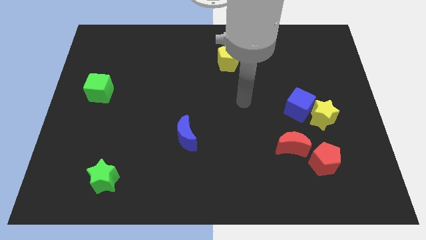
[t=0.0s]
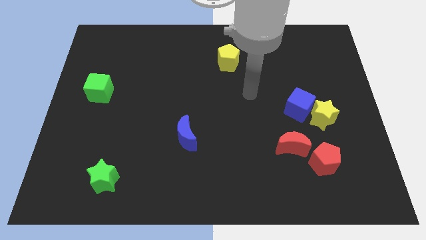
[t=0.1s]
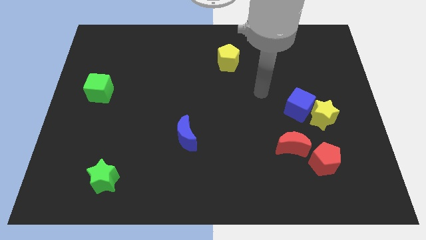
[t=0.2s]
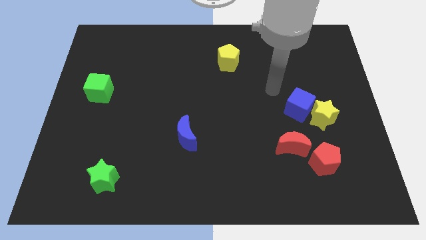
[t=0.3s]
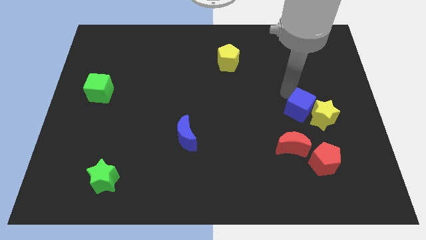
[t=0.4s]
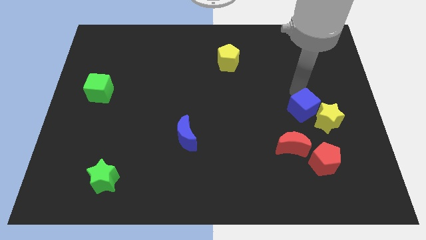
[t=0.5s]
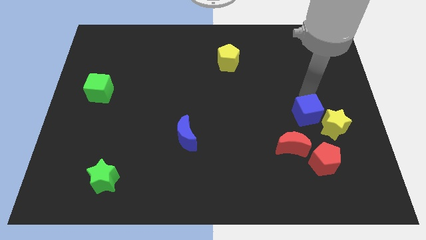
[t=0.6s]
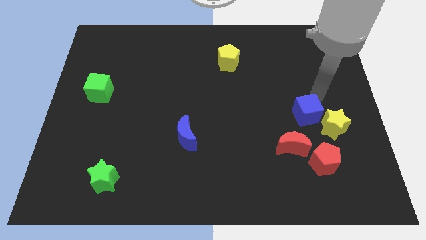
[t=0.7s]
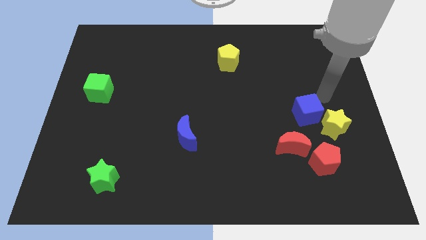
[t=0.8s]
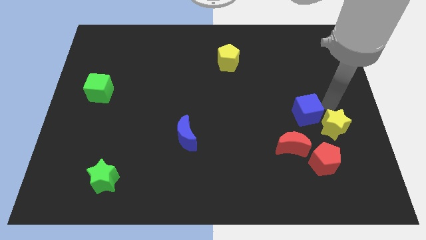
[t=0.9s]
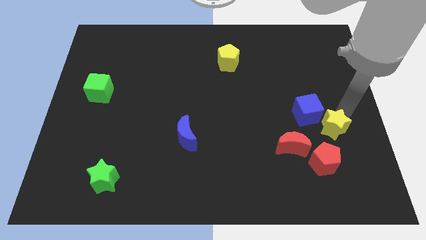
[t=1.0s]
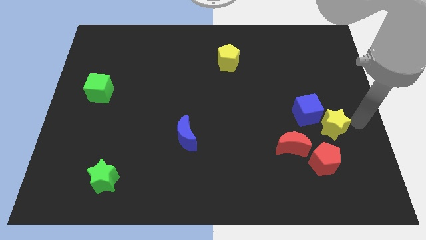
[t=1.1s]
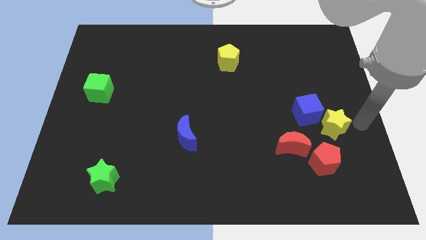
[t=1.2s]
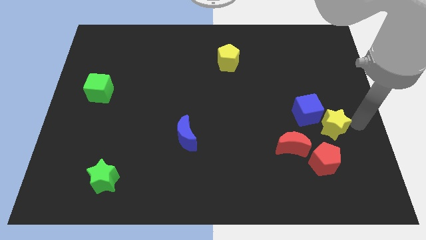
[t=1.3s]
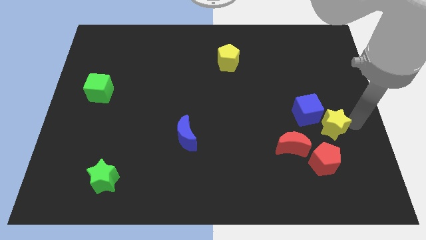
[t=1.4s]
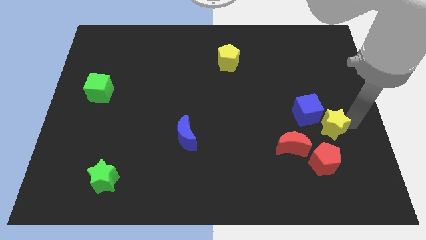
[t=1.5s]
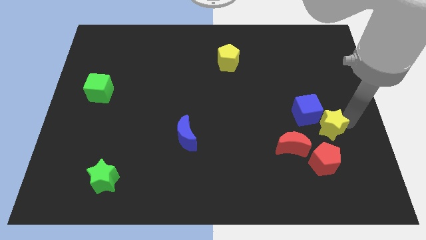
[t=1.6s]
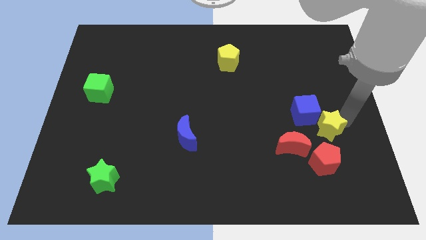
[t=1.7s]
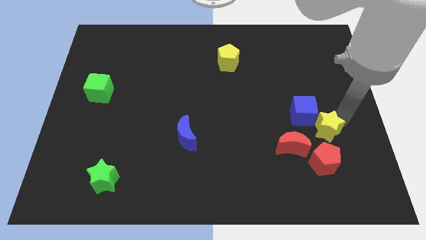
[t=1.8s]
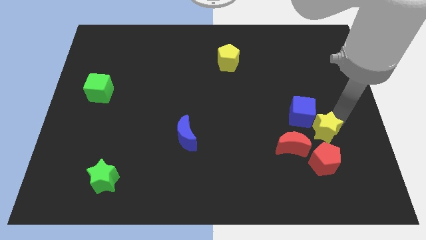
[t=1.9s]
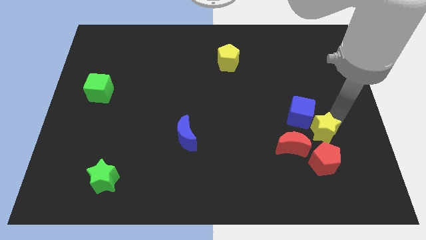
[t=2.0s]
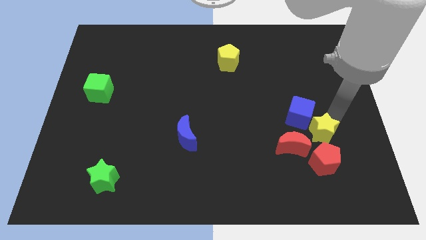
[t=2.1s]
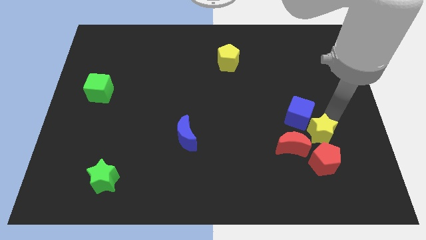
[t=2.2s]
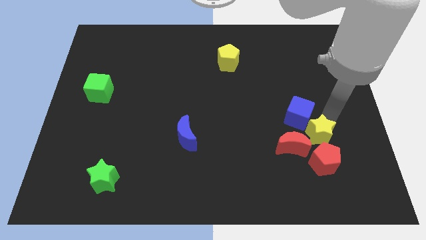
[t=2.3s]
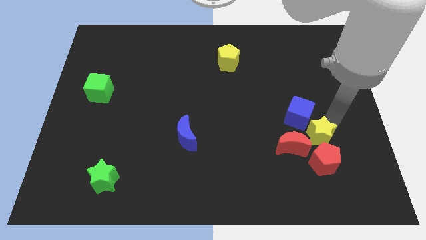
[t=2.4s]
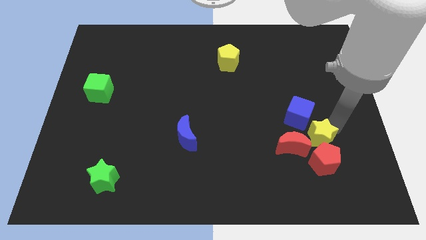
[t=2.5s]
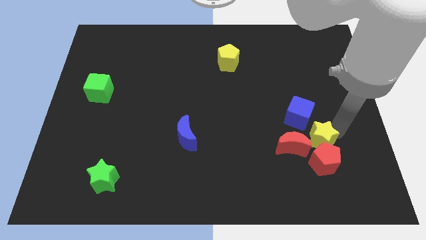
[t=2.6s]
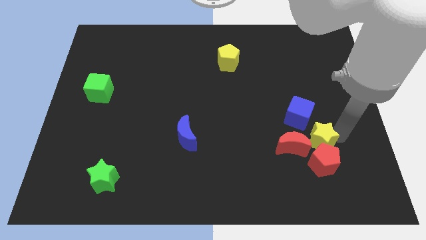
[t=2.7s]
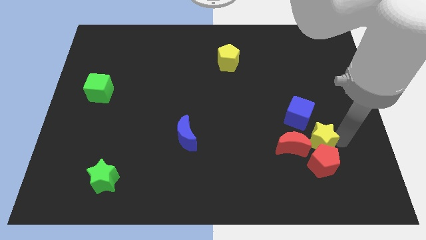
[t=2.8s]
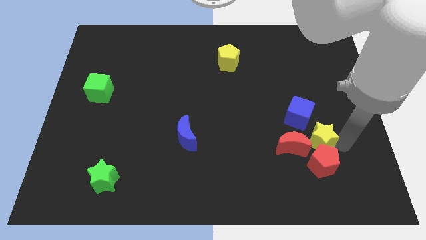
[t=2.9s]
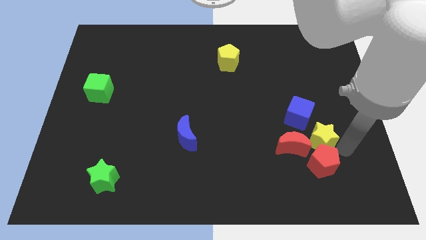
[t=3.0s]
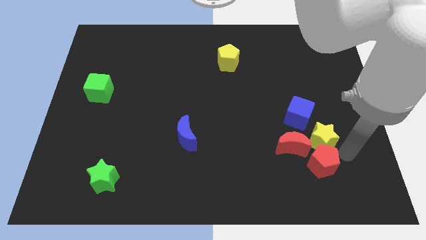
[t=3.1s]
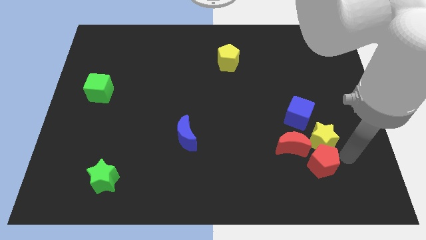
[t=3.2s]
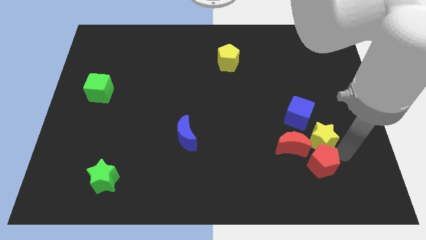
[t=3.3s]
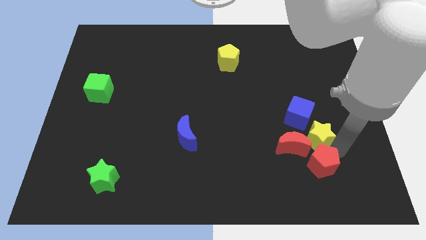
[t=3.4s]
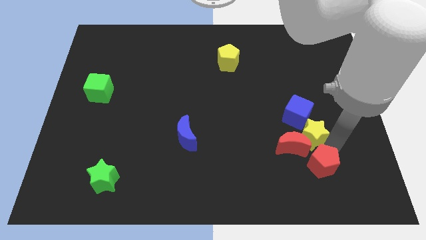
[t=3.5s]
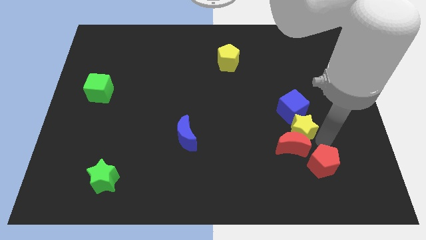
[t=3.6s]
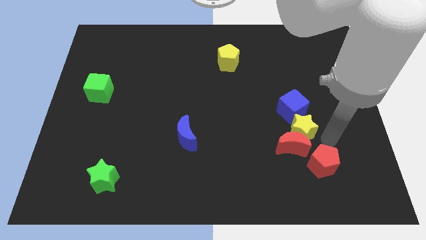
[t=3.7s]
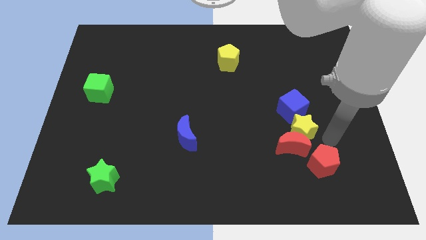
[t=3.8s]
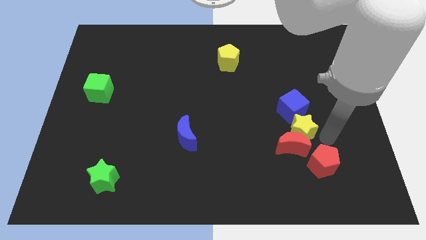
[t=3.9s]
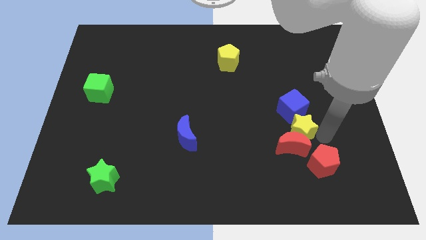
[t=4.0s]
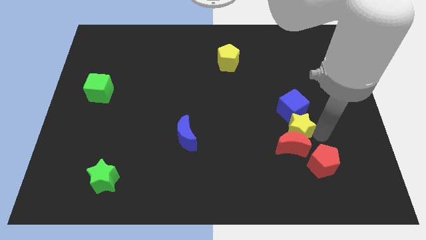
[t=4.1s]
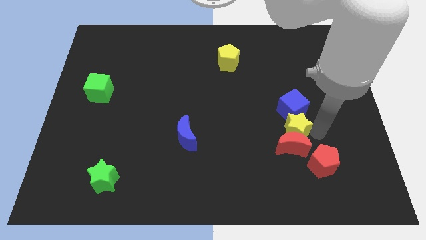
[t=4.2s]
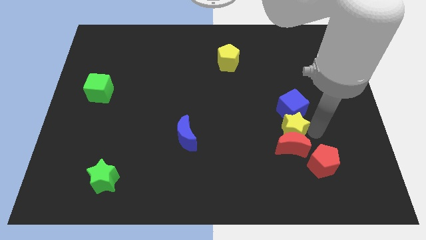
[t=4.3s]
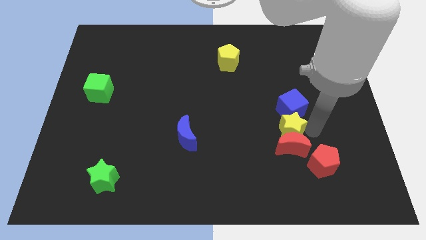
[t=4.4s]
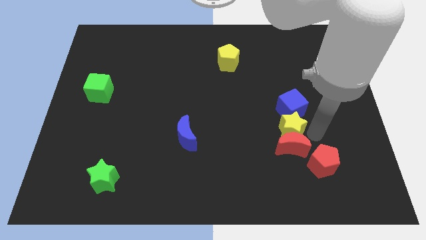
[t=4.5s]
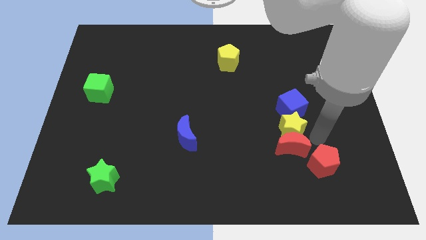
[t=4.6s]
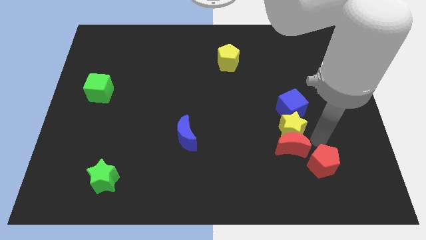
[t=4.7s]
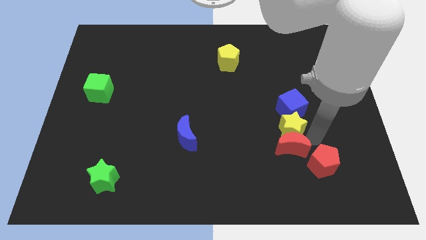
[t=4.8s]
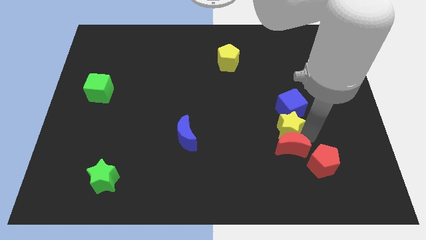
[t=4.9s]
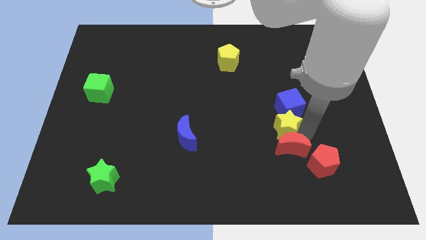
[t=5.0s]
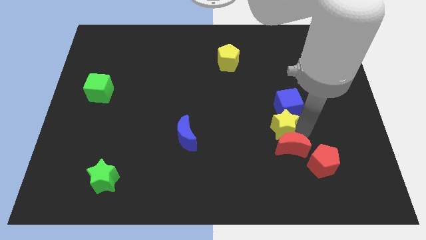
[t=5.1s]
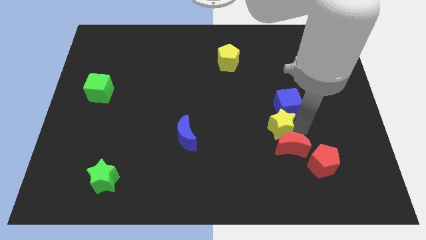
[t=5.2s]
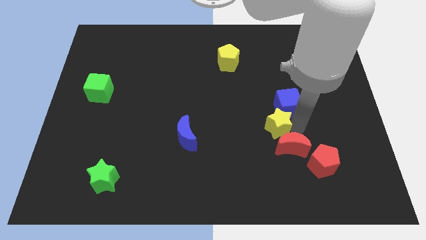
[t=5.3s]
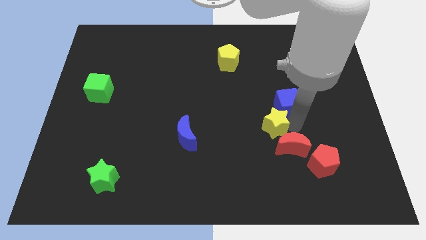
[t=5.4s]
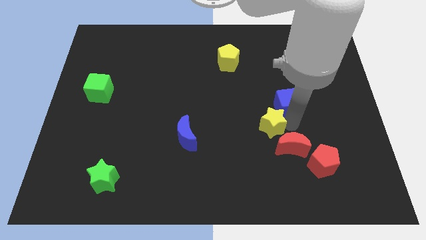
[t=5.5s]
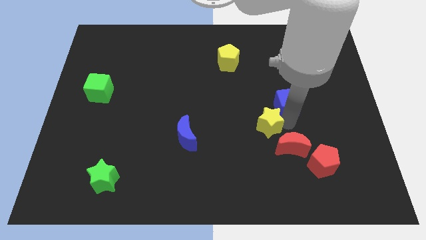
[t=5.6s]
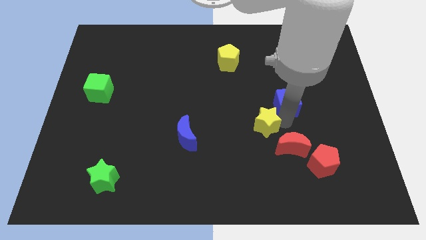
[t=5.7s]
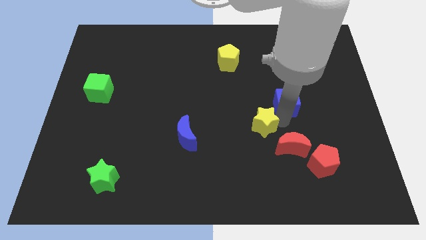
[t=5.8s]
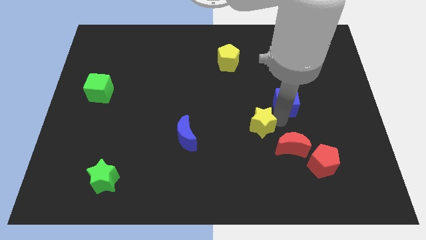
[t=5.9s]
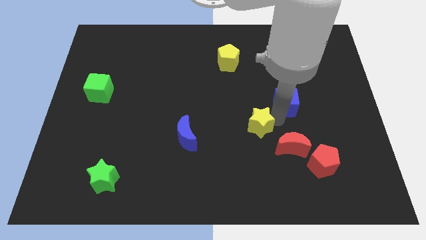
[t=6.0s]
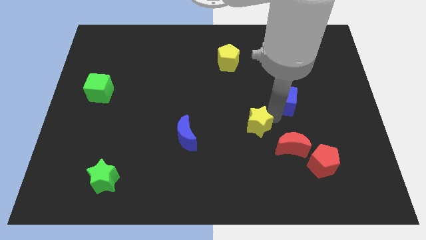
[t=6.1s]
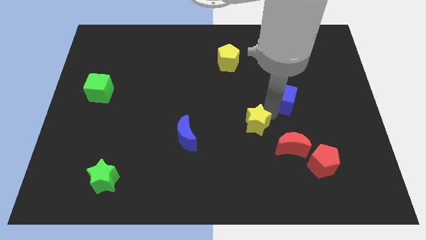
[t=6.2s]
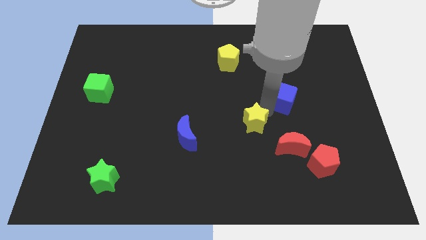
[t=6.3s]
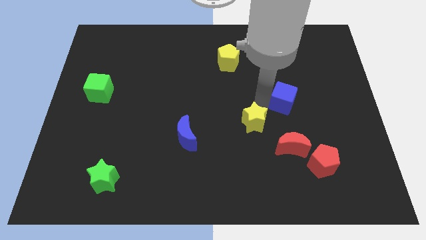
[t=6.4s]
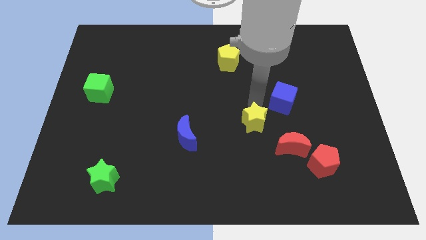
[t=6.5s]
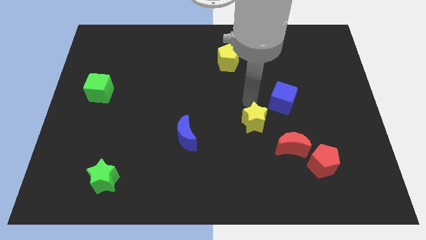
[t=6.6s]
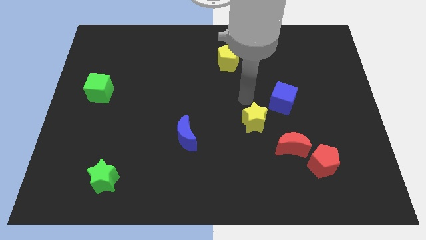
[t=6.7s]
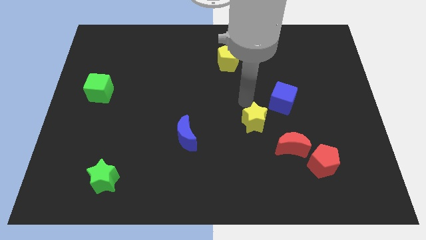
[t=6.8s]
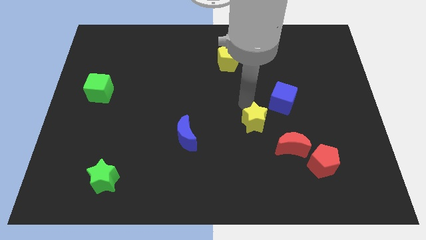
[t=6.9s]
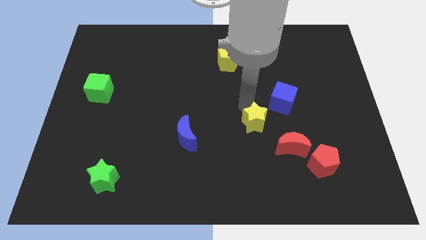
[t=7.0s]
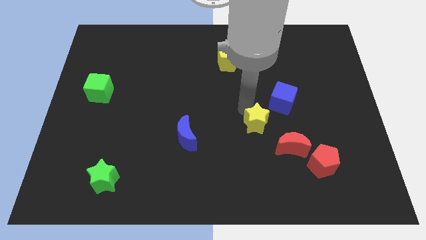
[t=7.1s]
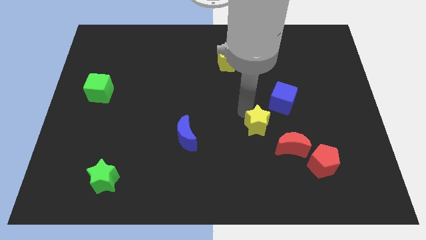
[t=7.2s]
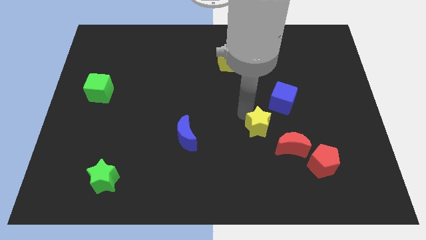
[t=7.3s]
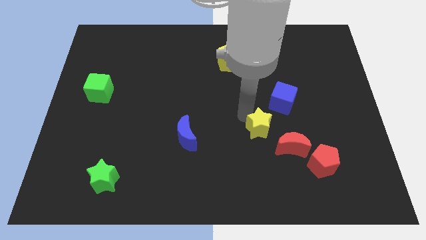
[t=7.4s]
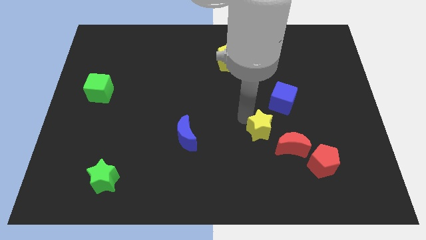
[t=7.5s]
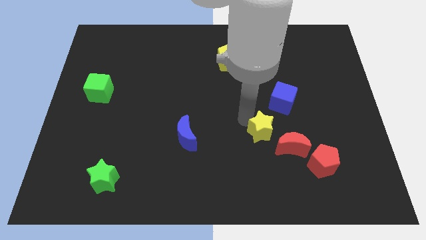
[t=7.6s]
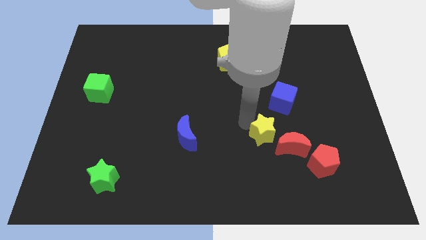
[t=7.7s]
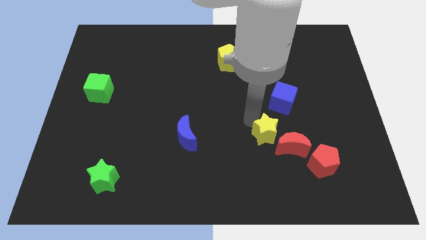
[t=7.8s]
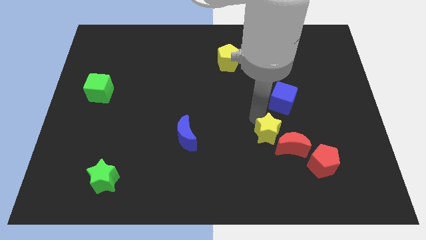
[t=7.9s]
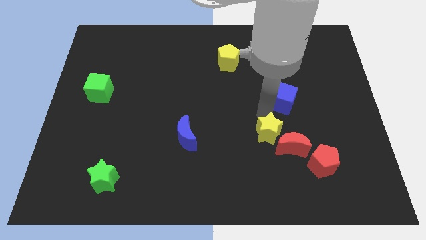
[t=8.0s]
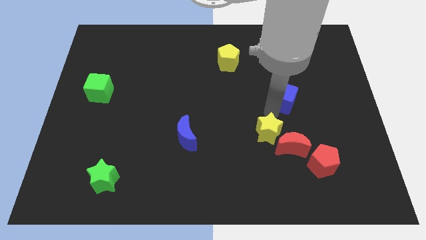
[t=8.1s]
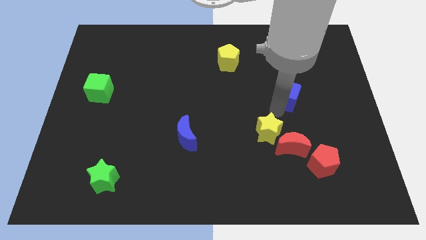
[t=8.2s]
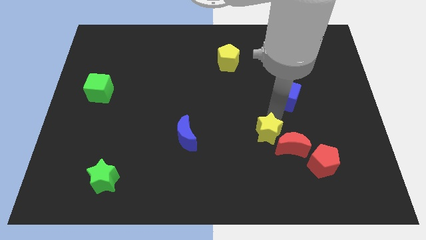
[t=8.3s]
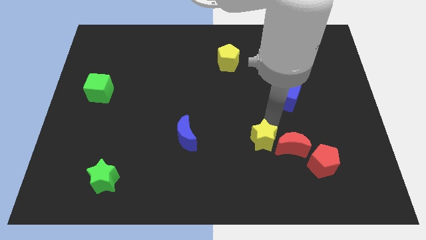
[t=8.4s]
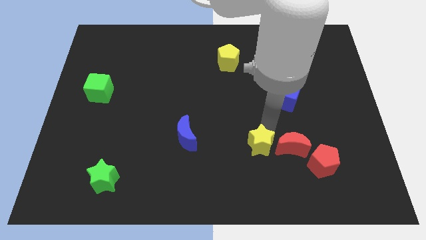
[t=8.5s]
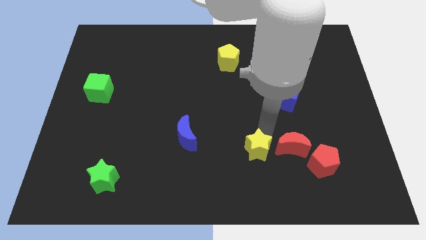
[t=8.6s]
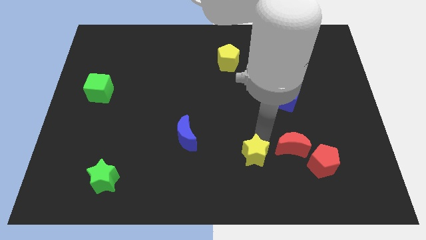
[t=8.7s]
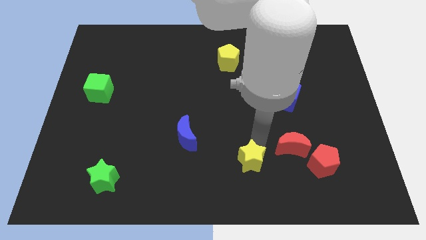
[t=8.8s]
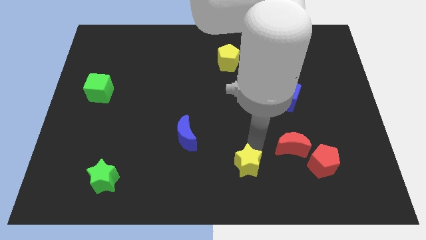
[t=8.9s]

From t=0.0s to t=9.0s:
put the yellow star to the bottom
